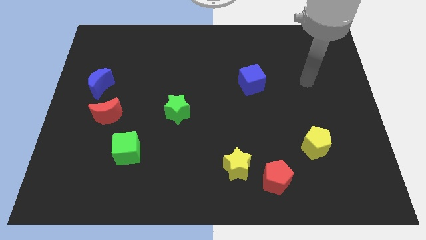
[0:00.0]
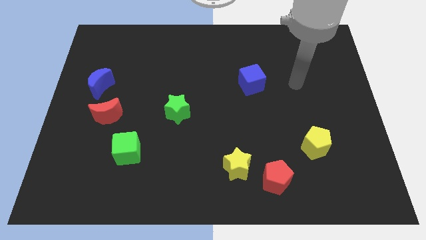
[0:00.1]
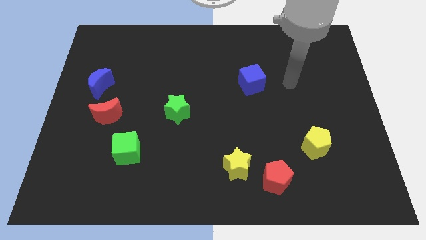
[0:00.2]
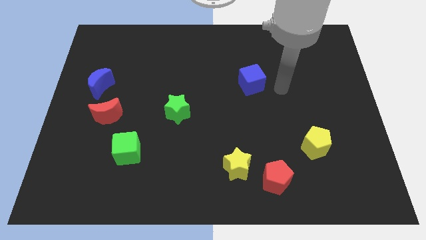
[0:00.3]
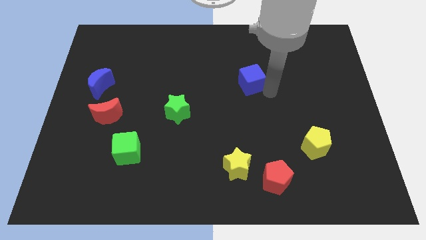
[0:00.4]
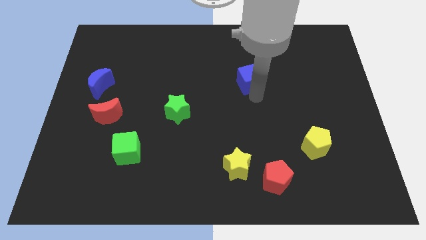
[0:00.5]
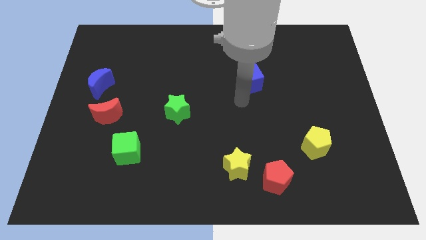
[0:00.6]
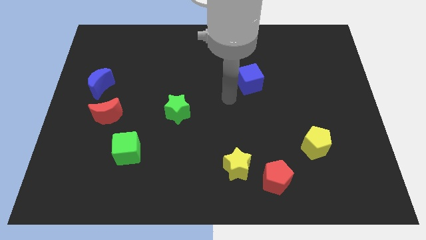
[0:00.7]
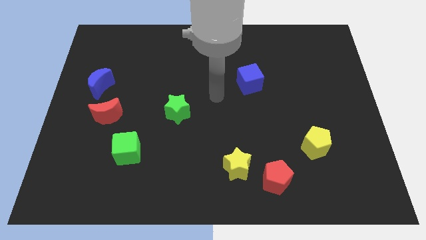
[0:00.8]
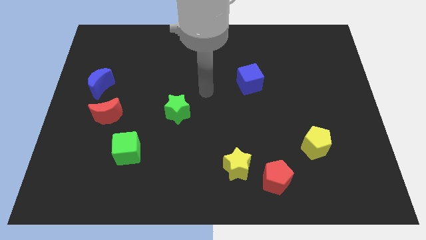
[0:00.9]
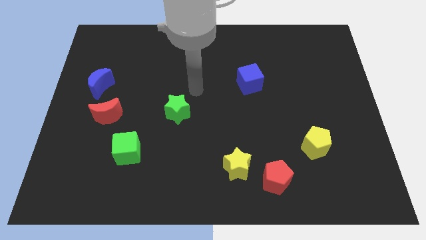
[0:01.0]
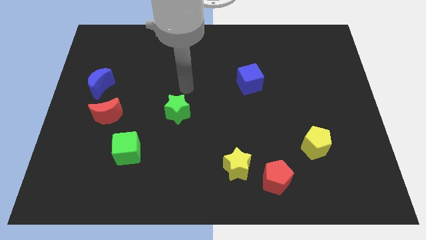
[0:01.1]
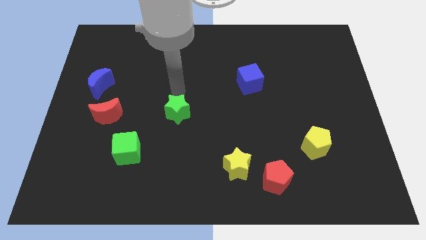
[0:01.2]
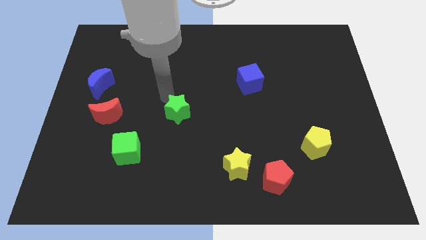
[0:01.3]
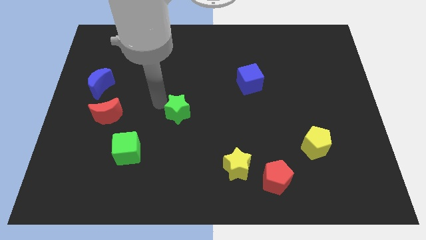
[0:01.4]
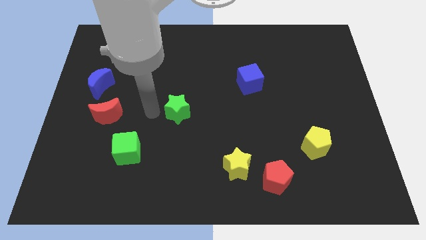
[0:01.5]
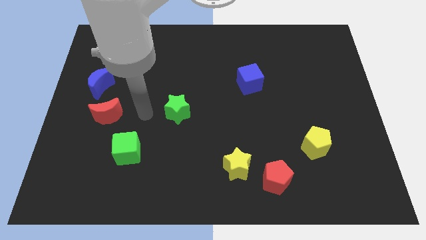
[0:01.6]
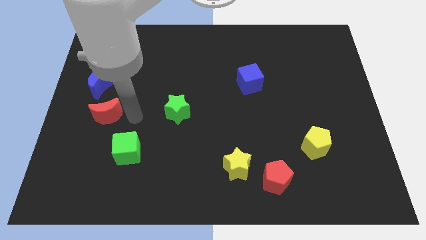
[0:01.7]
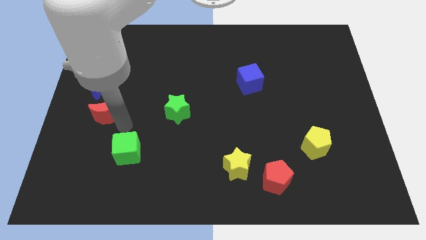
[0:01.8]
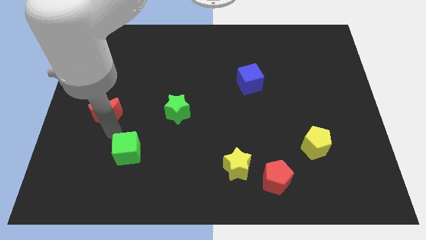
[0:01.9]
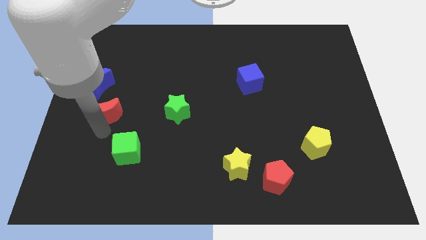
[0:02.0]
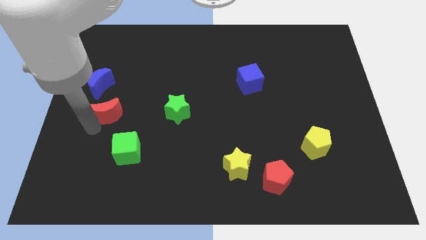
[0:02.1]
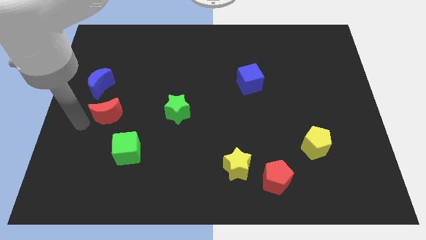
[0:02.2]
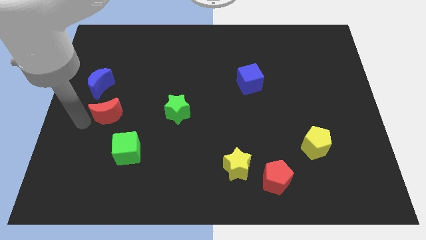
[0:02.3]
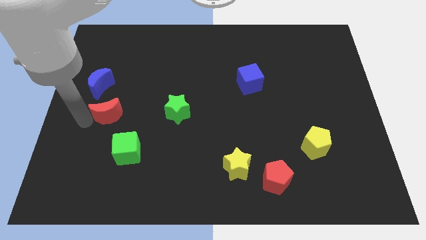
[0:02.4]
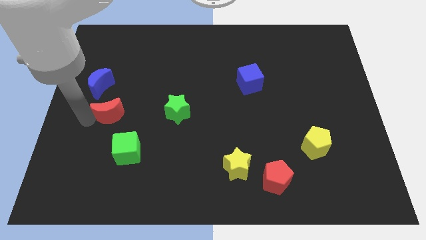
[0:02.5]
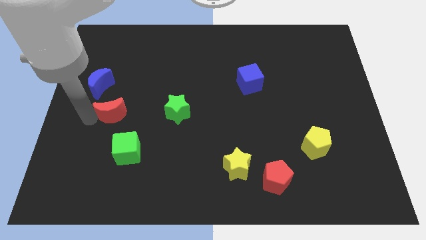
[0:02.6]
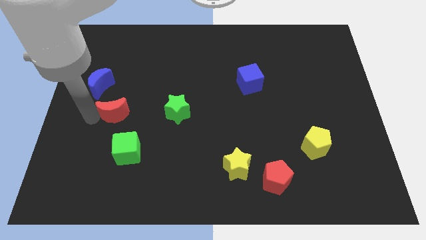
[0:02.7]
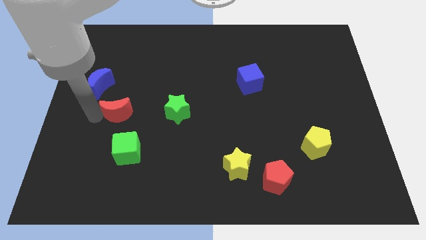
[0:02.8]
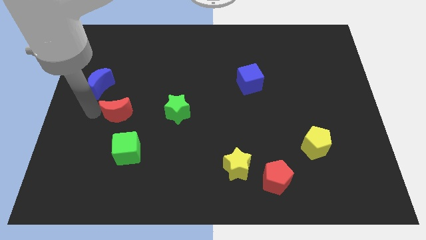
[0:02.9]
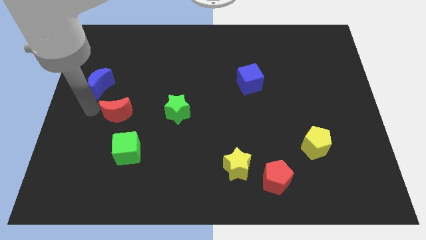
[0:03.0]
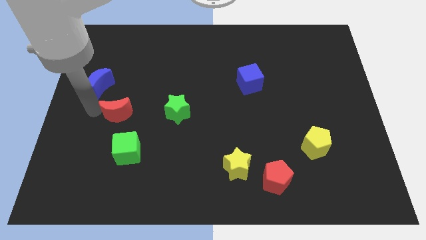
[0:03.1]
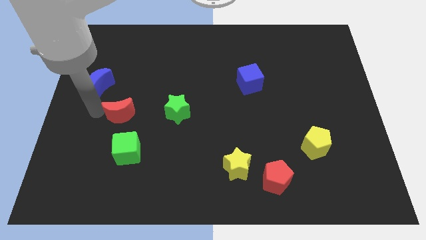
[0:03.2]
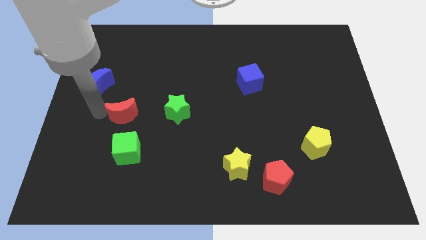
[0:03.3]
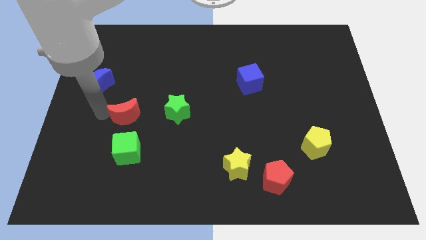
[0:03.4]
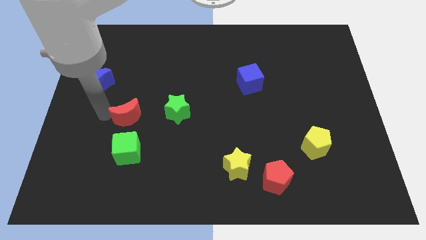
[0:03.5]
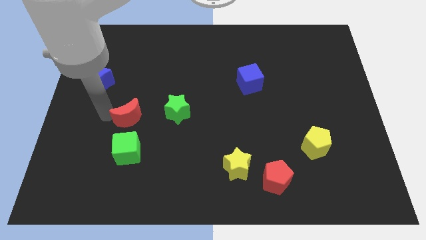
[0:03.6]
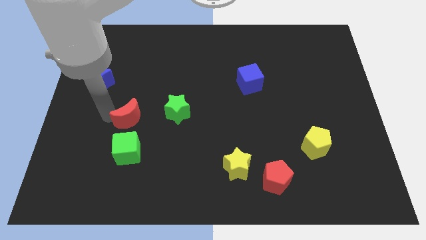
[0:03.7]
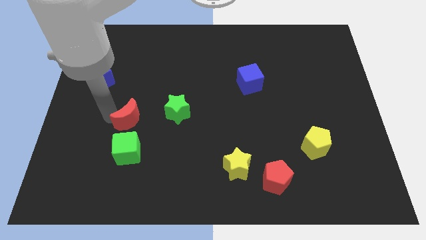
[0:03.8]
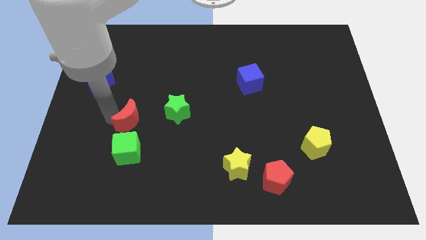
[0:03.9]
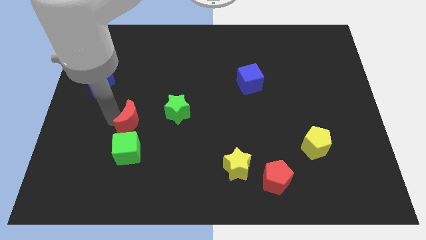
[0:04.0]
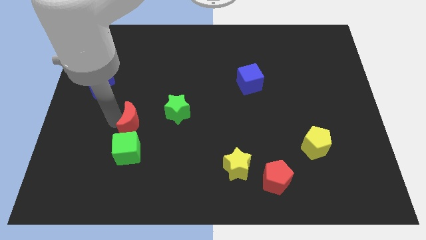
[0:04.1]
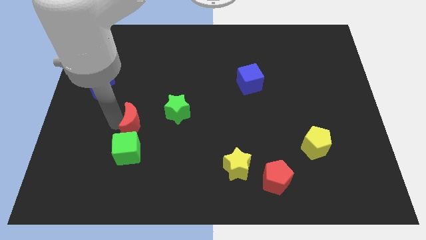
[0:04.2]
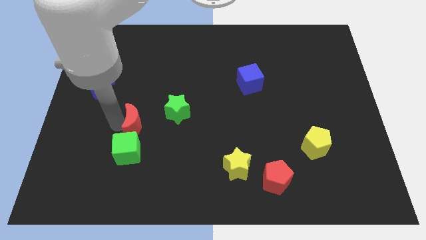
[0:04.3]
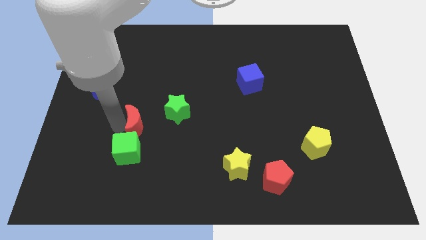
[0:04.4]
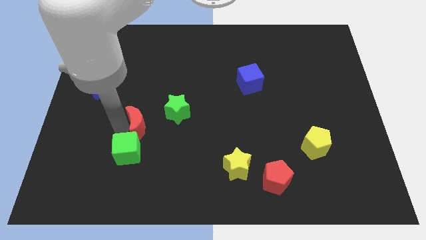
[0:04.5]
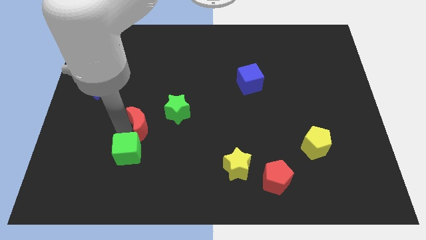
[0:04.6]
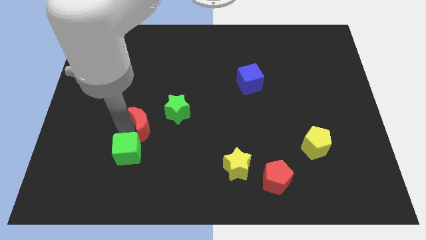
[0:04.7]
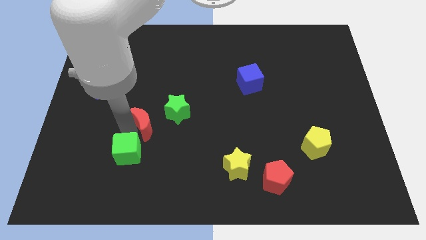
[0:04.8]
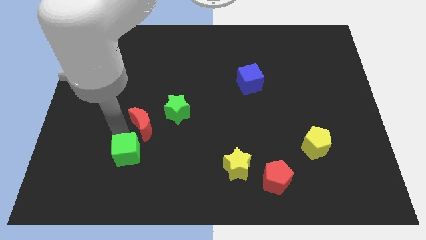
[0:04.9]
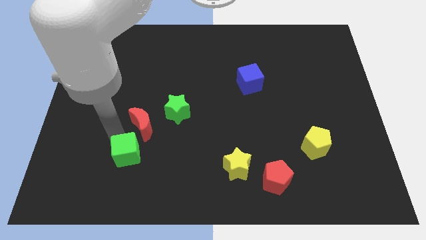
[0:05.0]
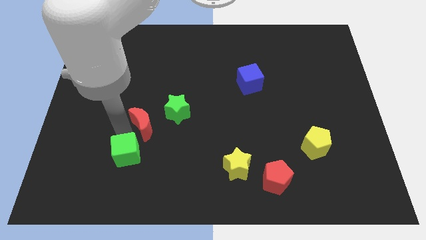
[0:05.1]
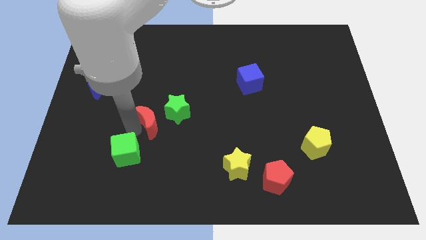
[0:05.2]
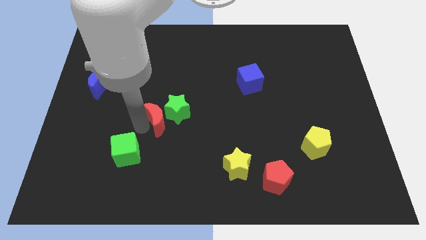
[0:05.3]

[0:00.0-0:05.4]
push the red moon next to the green star
